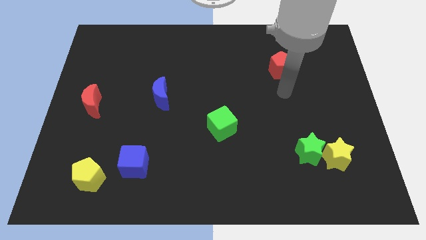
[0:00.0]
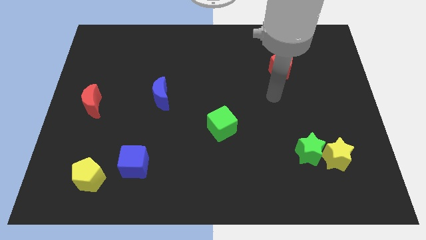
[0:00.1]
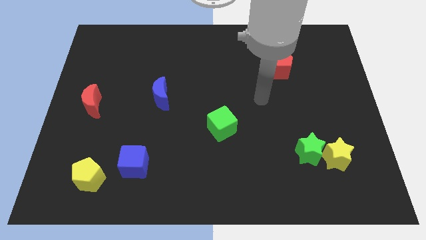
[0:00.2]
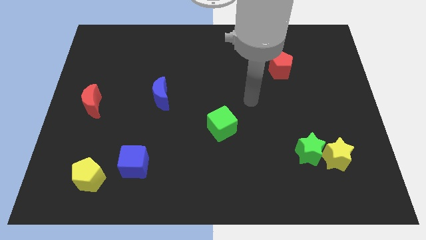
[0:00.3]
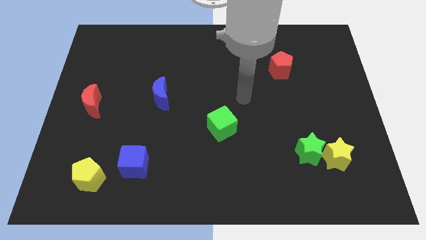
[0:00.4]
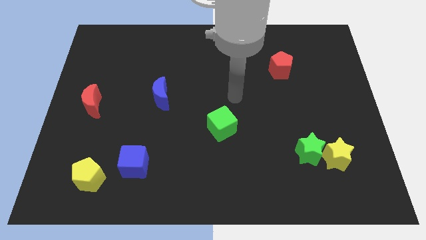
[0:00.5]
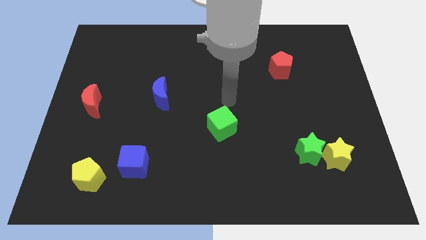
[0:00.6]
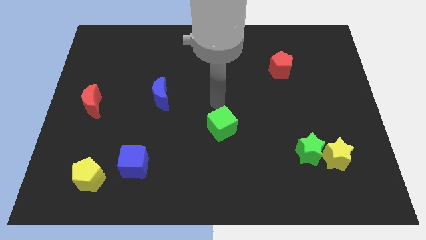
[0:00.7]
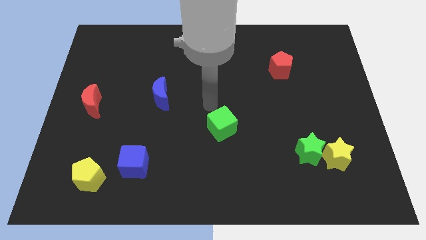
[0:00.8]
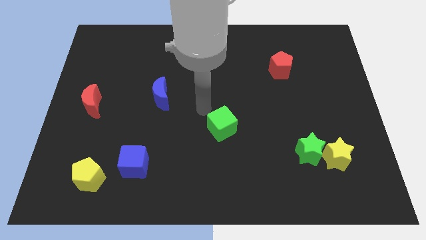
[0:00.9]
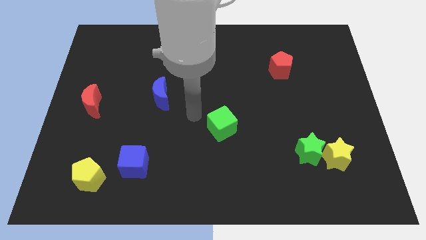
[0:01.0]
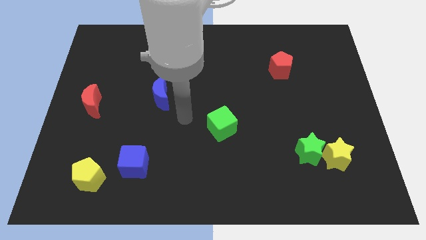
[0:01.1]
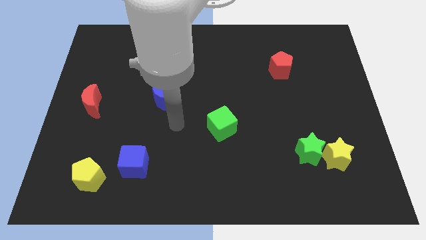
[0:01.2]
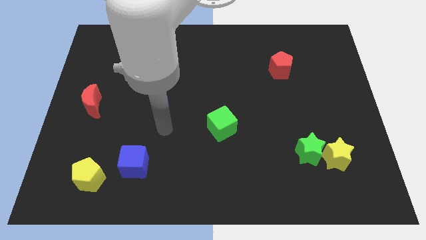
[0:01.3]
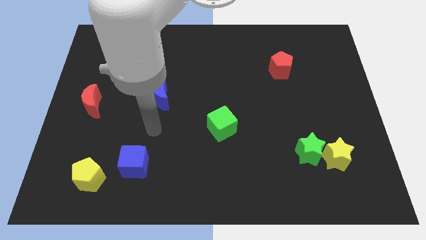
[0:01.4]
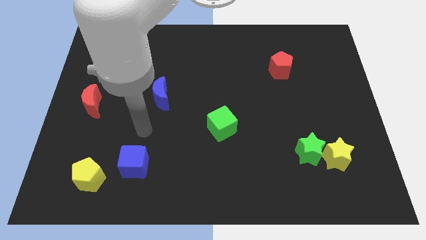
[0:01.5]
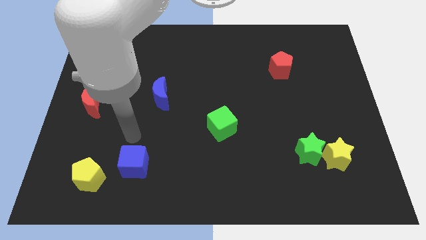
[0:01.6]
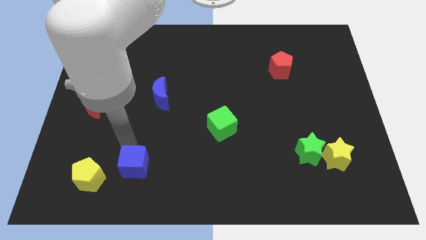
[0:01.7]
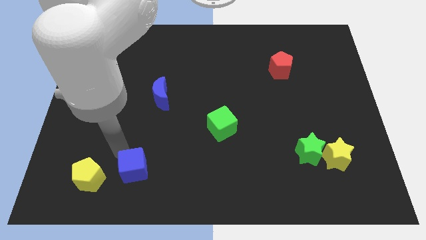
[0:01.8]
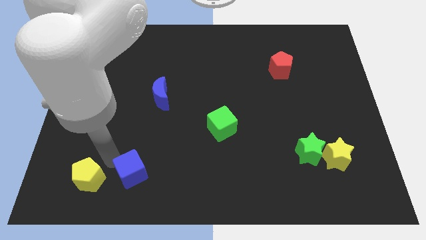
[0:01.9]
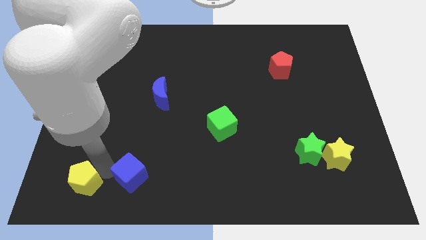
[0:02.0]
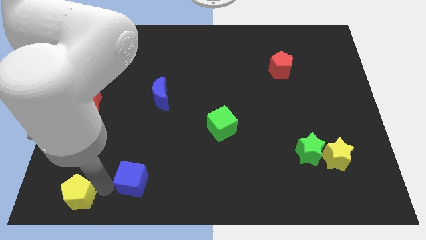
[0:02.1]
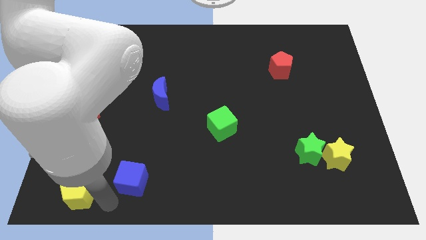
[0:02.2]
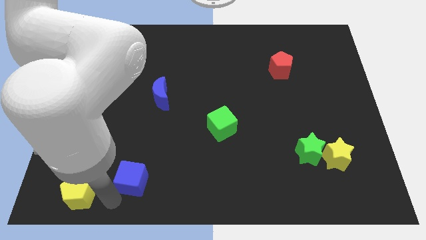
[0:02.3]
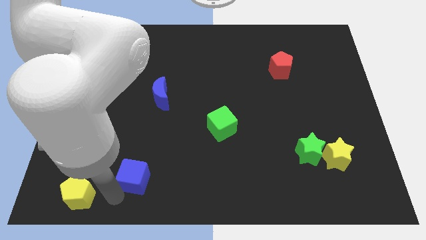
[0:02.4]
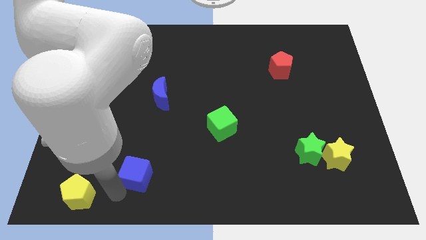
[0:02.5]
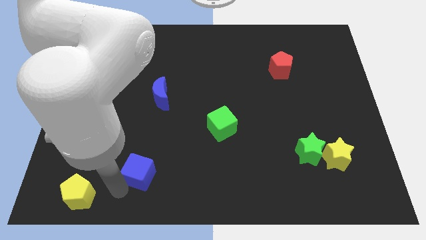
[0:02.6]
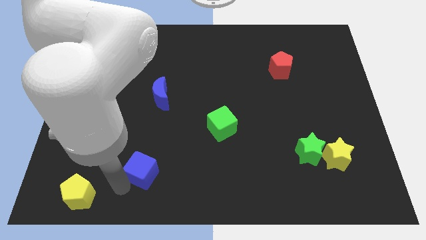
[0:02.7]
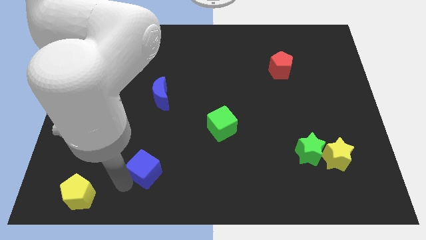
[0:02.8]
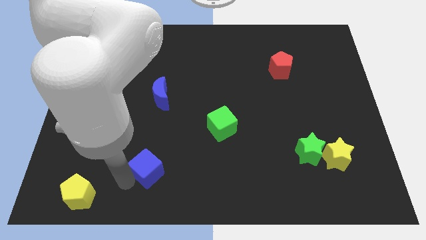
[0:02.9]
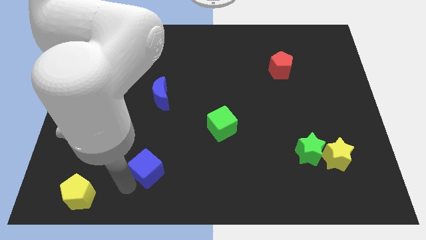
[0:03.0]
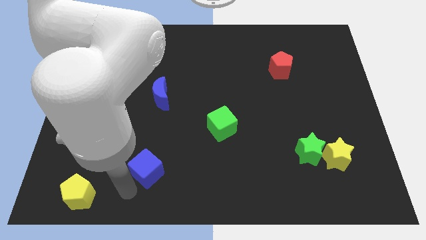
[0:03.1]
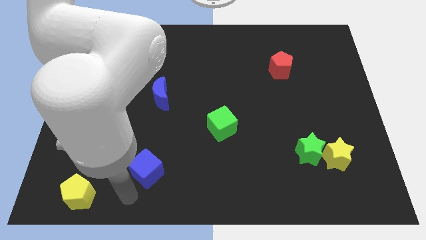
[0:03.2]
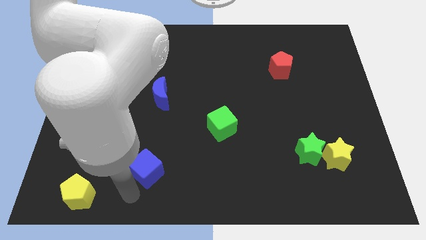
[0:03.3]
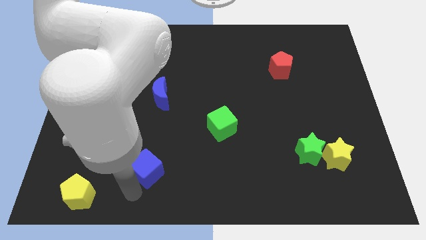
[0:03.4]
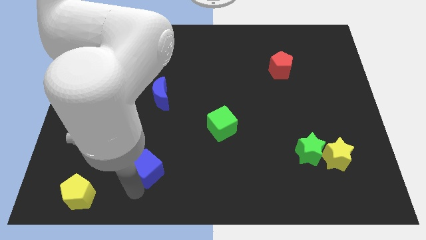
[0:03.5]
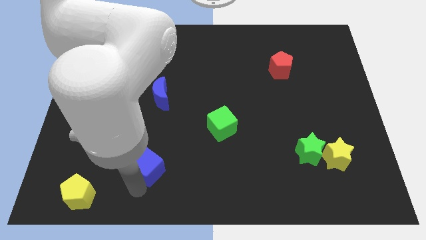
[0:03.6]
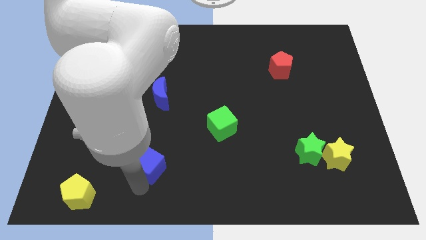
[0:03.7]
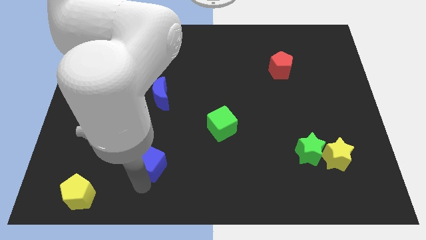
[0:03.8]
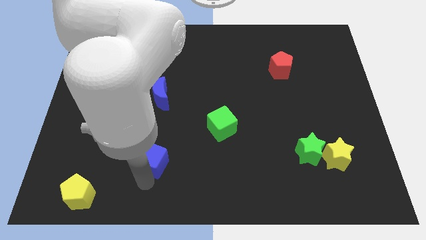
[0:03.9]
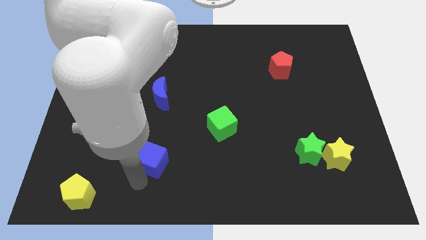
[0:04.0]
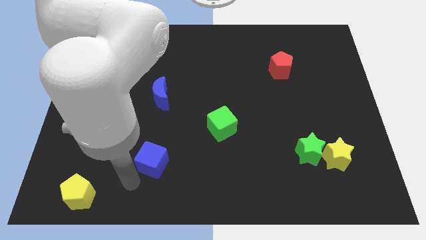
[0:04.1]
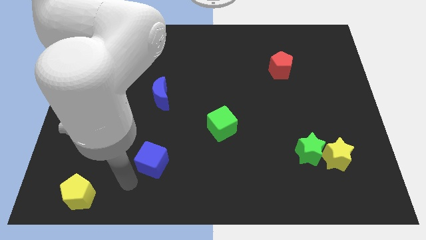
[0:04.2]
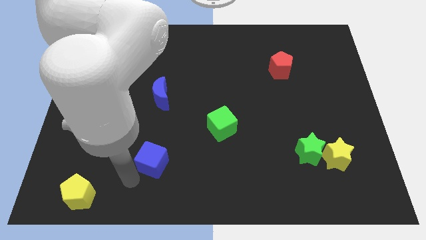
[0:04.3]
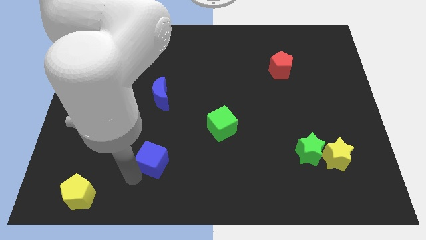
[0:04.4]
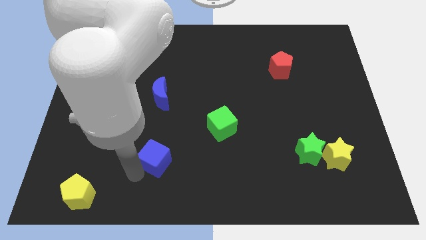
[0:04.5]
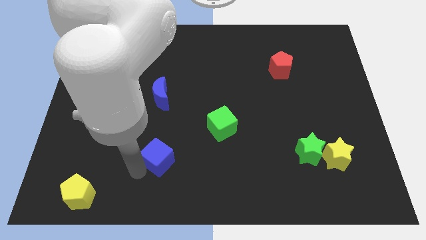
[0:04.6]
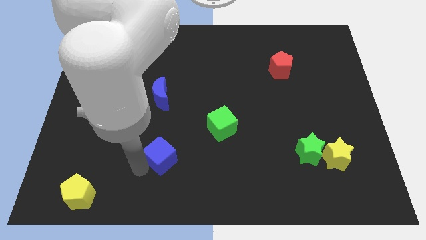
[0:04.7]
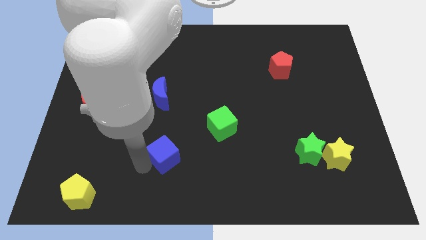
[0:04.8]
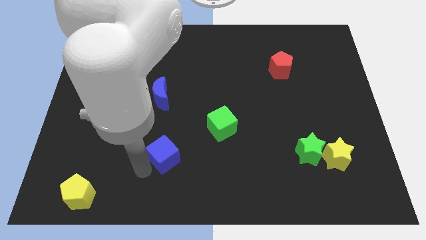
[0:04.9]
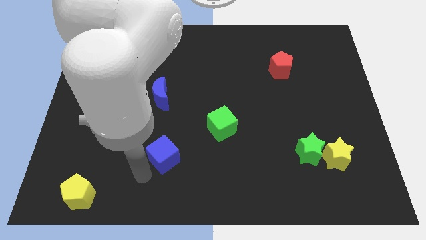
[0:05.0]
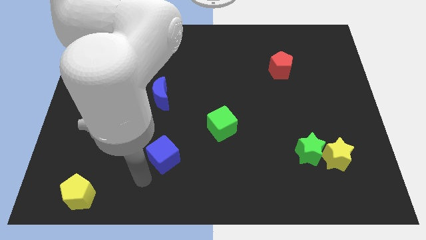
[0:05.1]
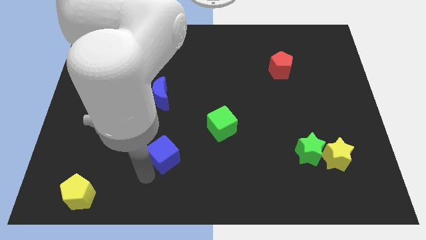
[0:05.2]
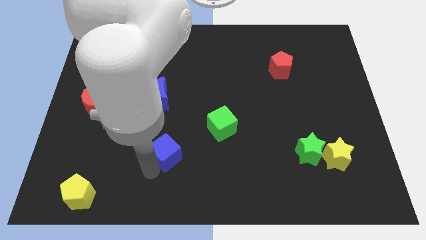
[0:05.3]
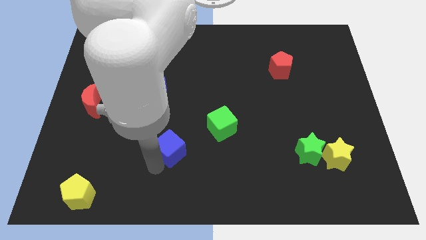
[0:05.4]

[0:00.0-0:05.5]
slightly move the blue cube upwards and right

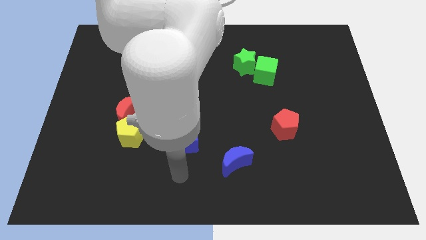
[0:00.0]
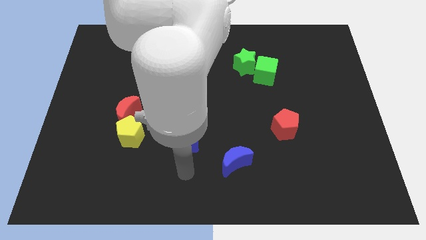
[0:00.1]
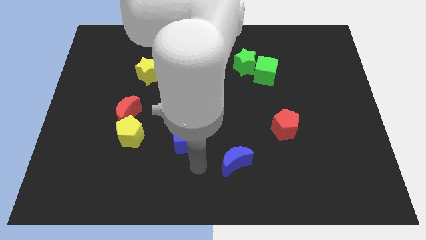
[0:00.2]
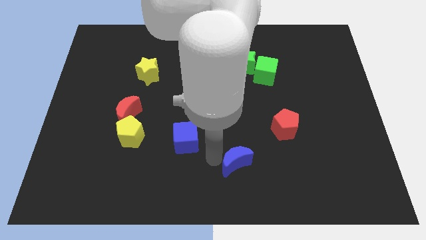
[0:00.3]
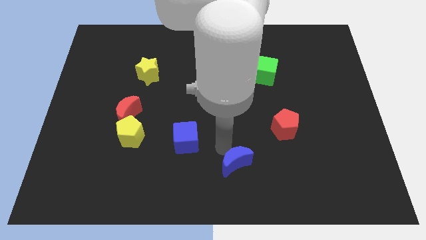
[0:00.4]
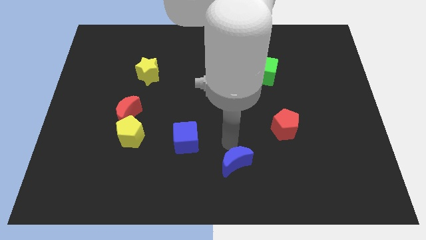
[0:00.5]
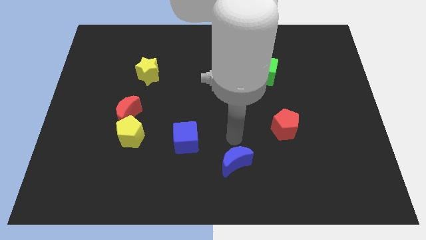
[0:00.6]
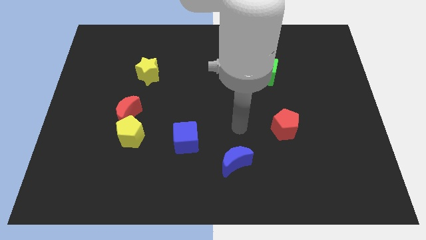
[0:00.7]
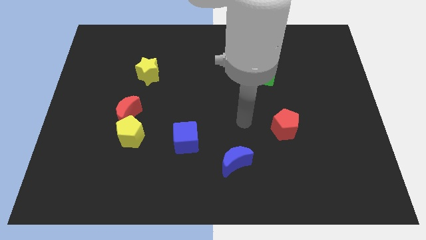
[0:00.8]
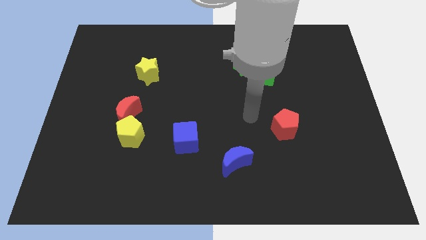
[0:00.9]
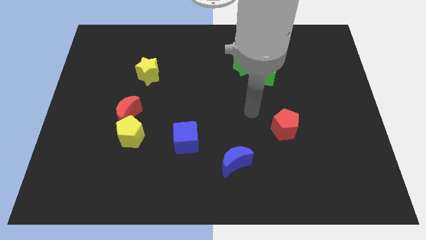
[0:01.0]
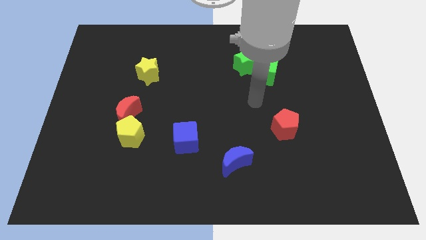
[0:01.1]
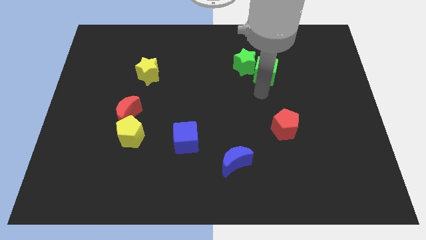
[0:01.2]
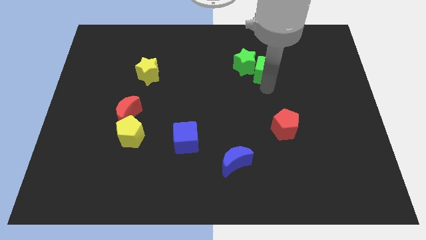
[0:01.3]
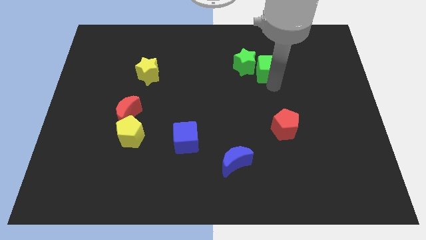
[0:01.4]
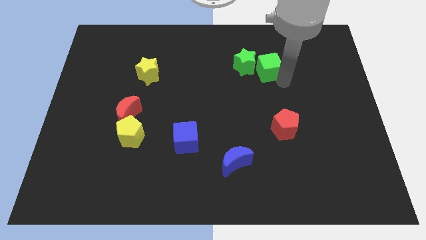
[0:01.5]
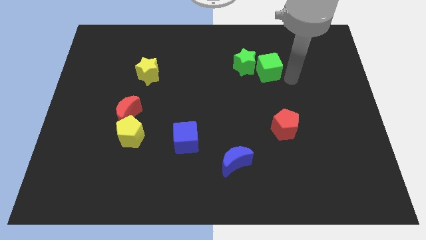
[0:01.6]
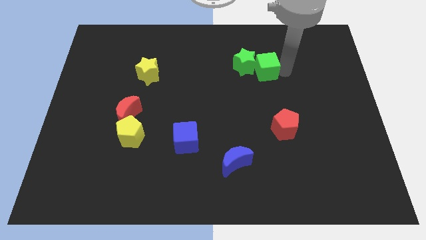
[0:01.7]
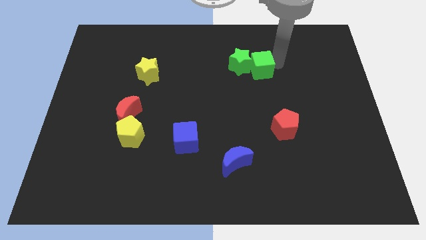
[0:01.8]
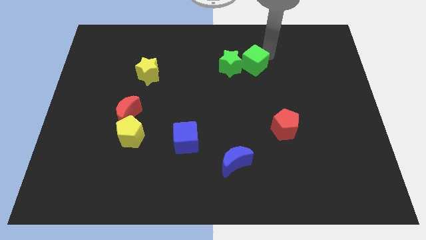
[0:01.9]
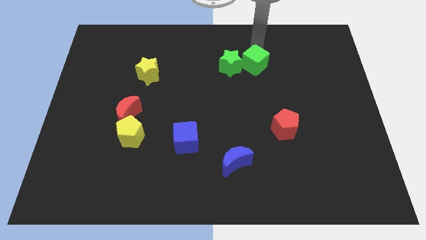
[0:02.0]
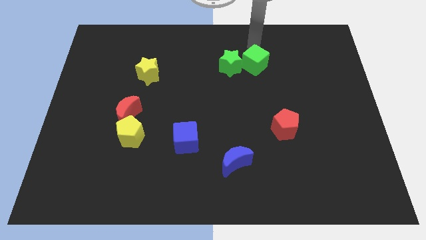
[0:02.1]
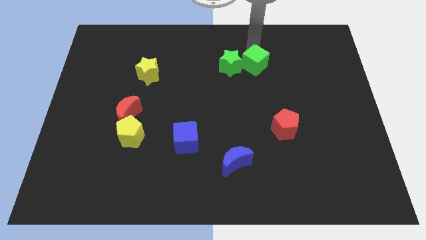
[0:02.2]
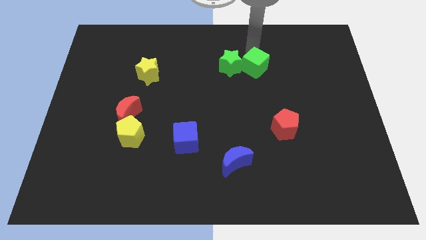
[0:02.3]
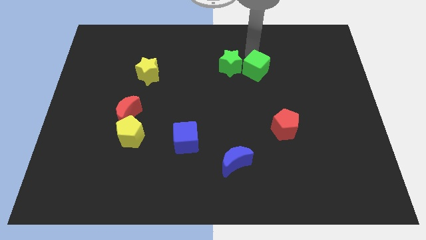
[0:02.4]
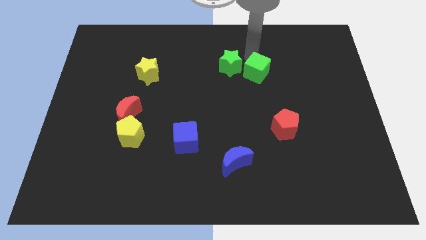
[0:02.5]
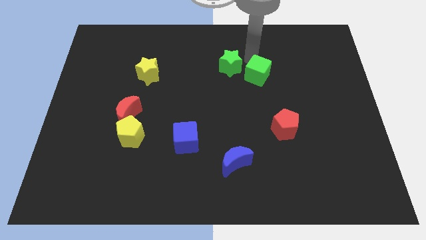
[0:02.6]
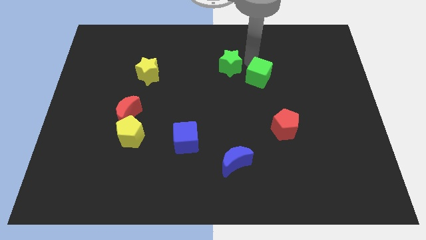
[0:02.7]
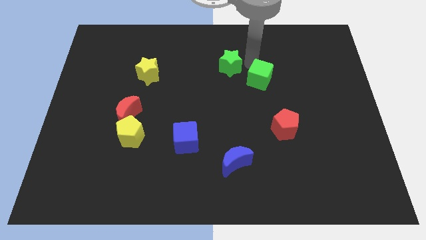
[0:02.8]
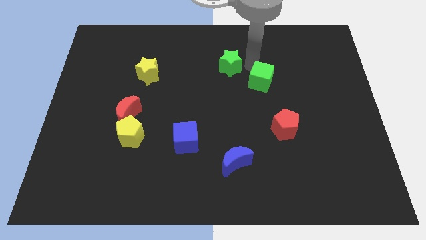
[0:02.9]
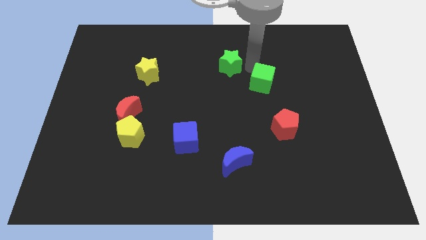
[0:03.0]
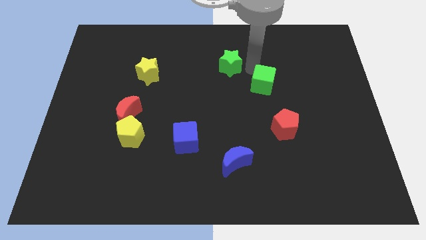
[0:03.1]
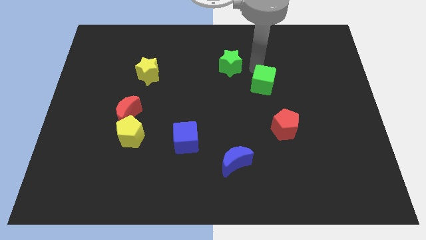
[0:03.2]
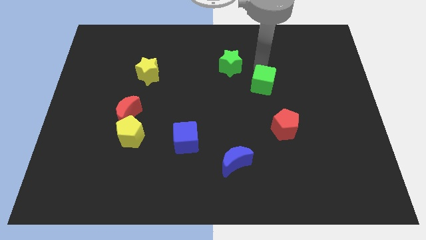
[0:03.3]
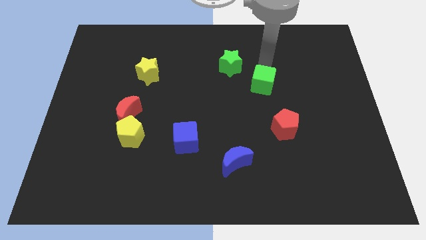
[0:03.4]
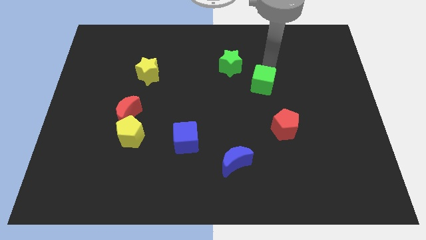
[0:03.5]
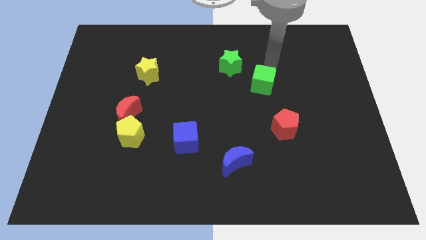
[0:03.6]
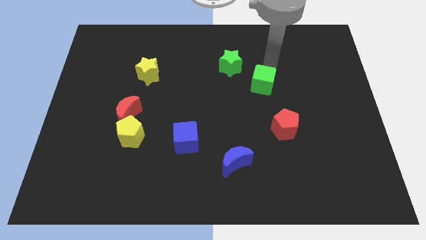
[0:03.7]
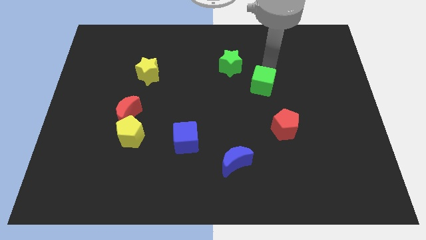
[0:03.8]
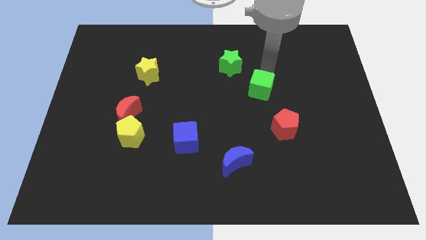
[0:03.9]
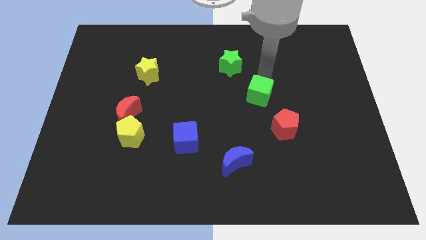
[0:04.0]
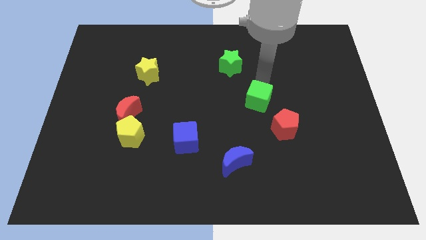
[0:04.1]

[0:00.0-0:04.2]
move the green cube down a little bit
